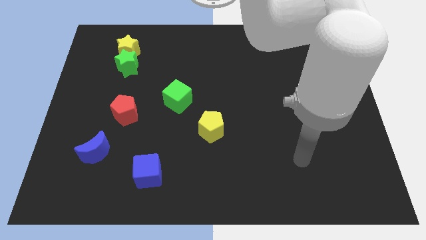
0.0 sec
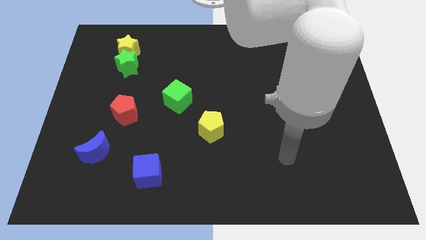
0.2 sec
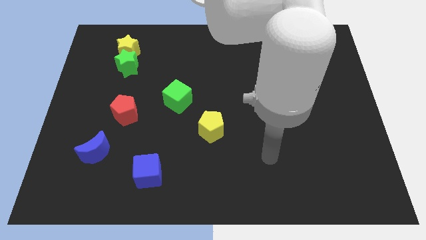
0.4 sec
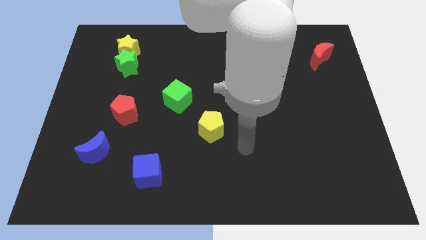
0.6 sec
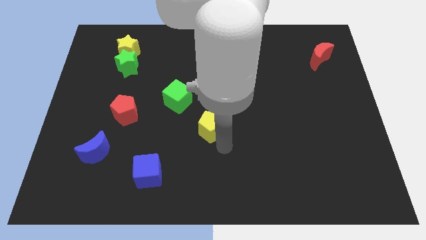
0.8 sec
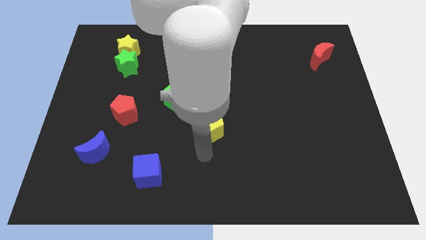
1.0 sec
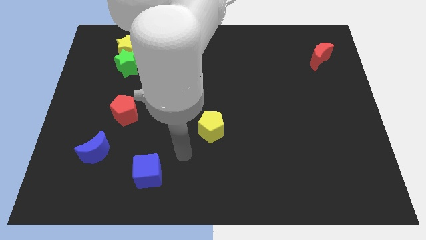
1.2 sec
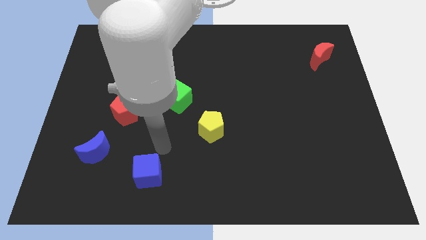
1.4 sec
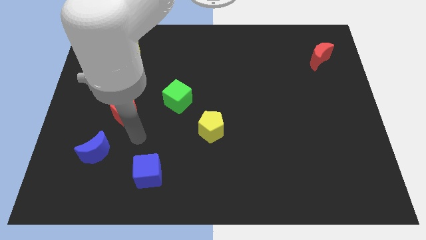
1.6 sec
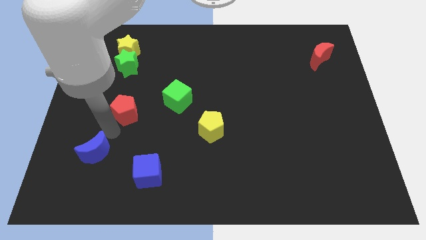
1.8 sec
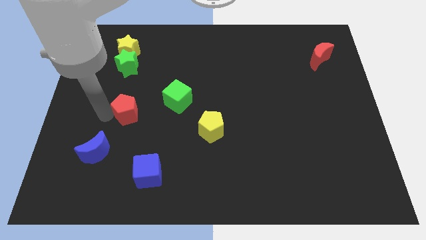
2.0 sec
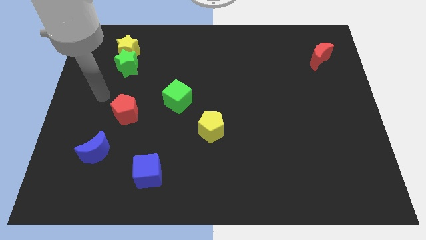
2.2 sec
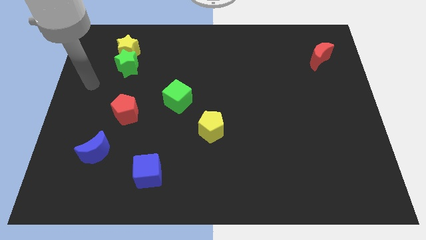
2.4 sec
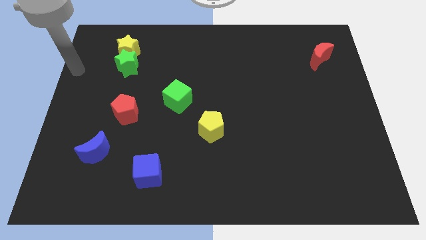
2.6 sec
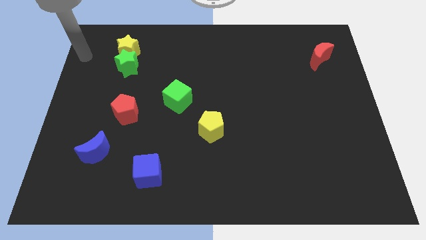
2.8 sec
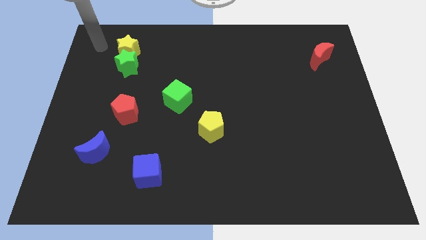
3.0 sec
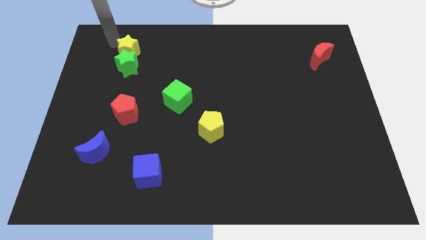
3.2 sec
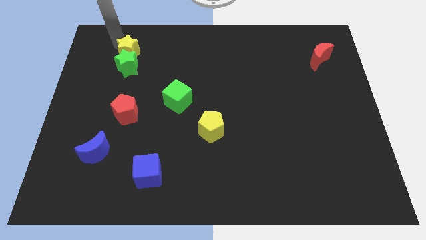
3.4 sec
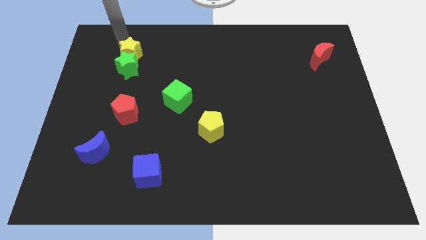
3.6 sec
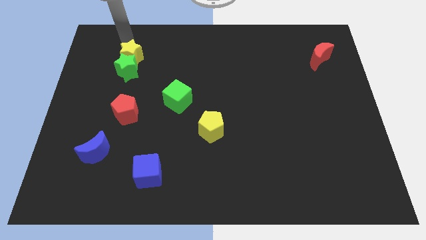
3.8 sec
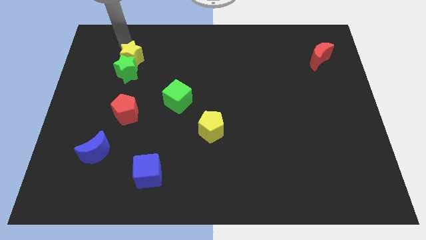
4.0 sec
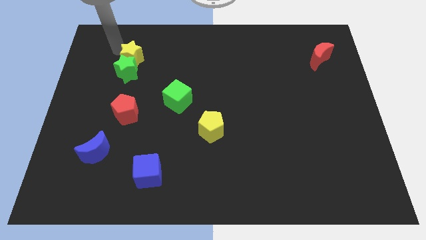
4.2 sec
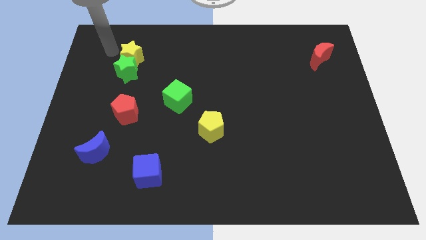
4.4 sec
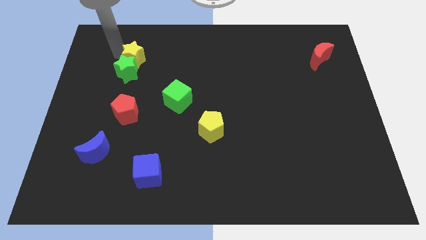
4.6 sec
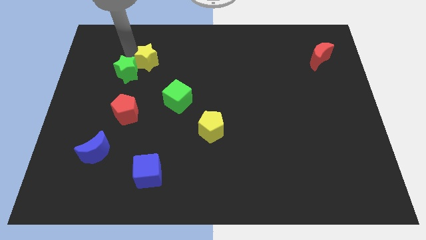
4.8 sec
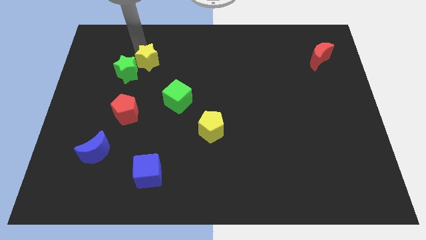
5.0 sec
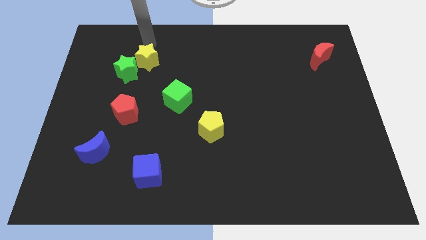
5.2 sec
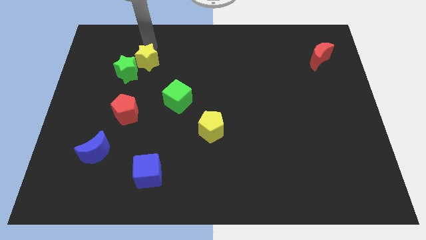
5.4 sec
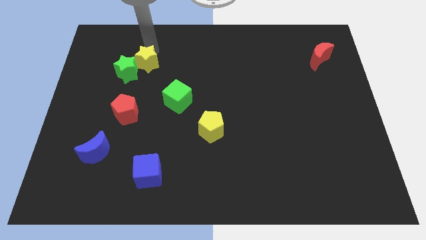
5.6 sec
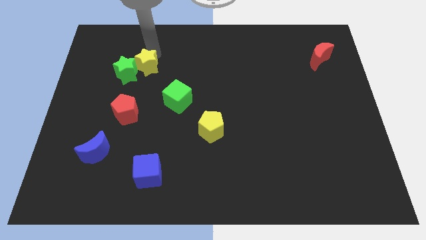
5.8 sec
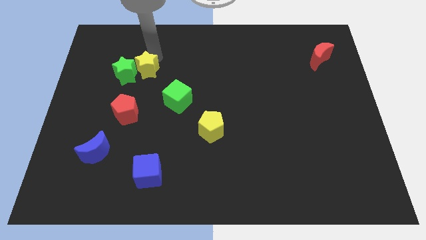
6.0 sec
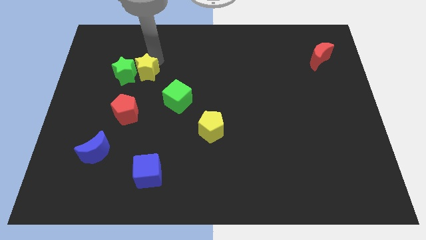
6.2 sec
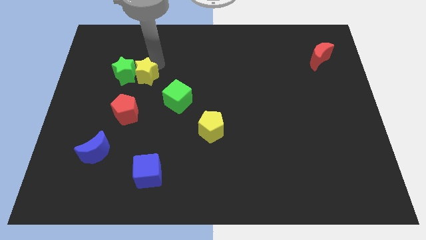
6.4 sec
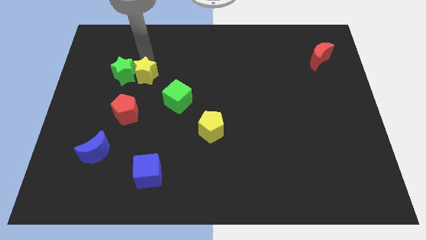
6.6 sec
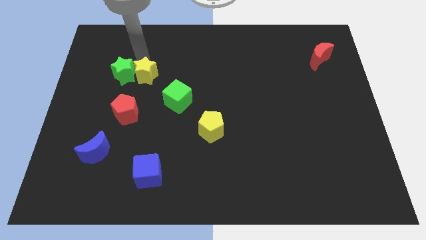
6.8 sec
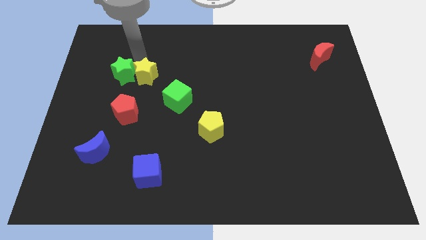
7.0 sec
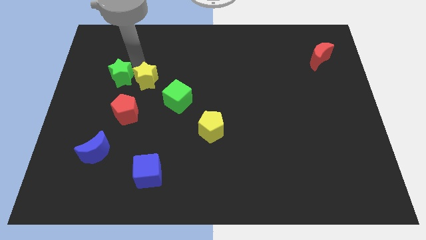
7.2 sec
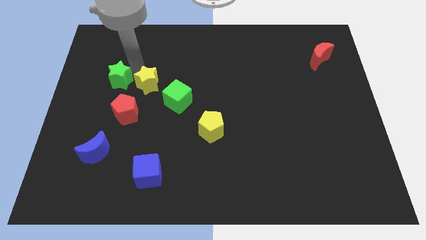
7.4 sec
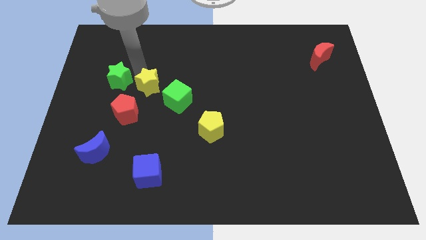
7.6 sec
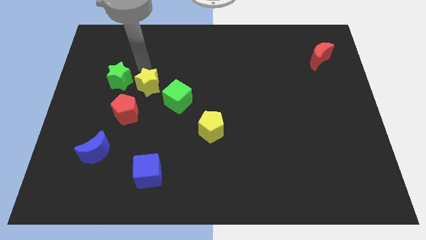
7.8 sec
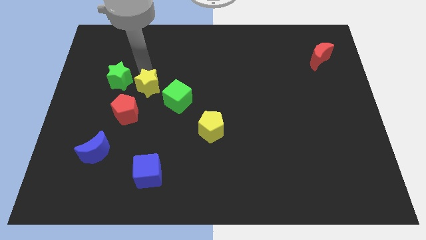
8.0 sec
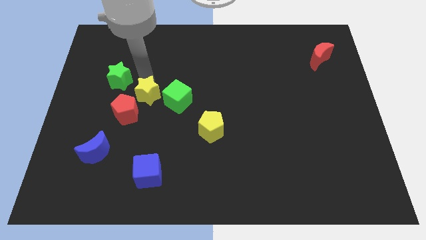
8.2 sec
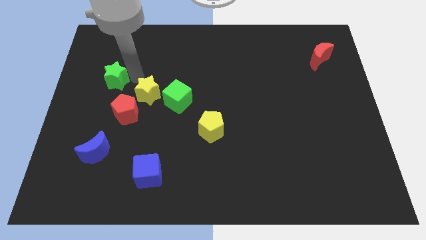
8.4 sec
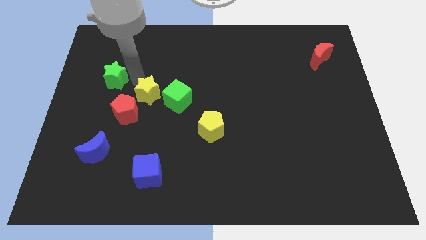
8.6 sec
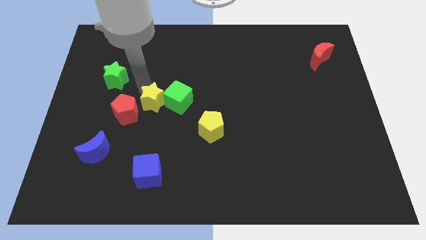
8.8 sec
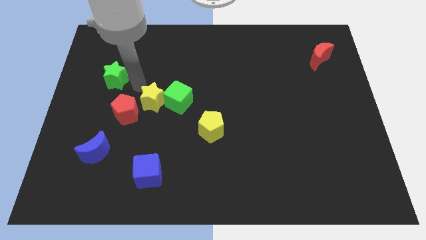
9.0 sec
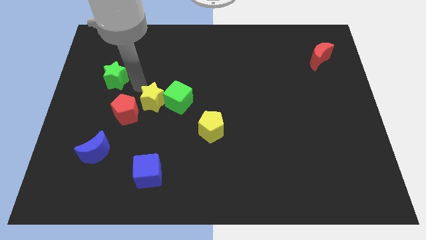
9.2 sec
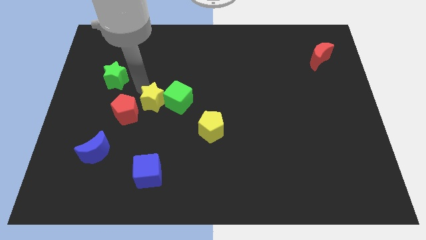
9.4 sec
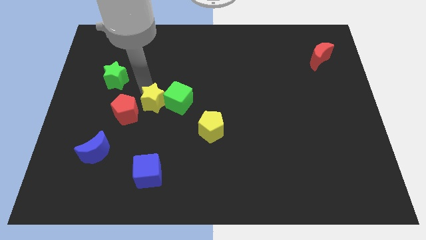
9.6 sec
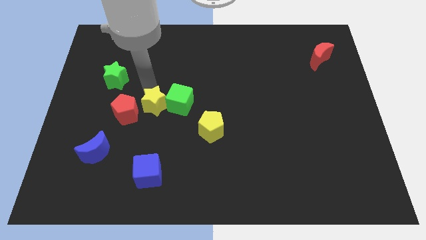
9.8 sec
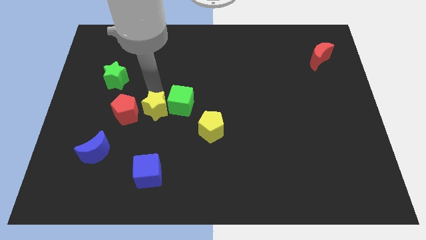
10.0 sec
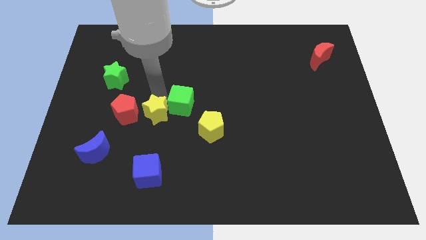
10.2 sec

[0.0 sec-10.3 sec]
push the yellow star to the left side of the yellow pentagon

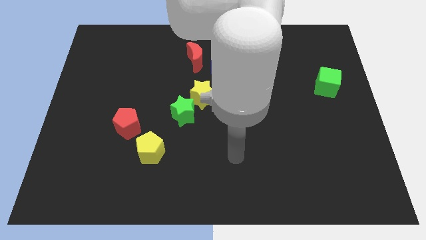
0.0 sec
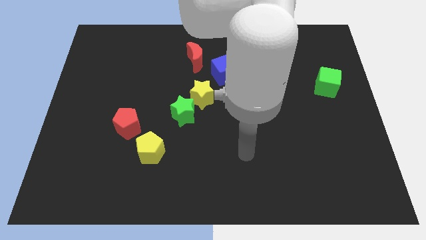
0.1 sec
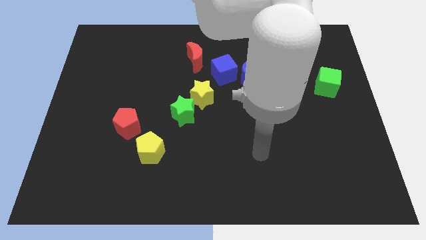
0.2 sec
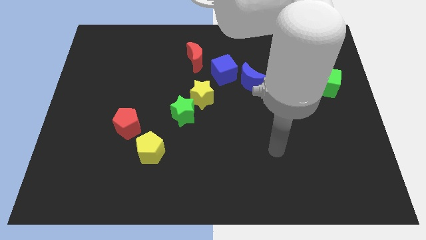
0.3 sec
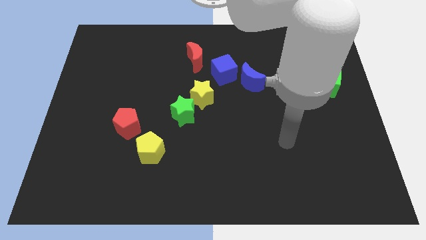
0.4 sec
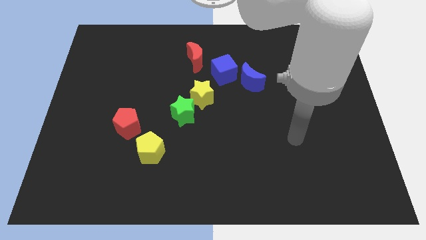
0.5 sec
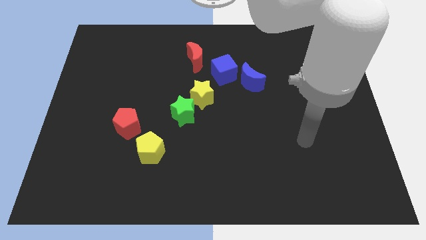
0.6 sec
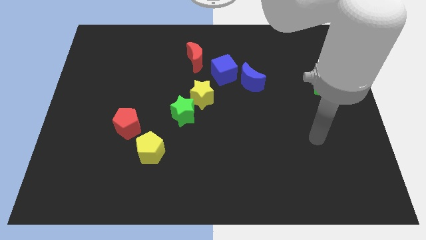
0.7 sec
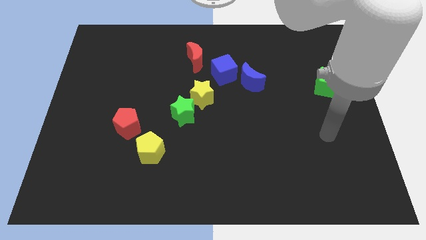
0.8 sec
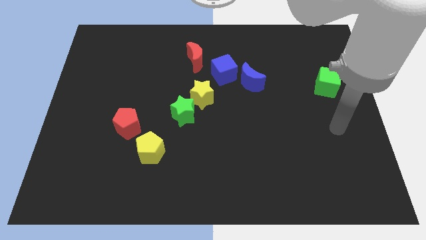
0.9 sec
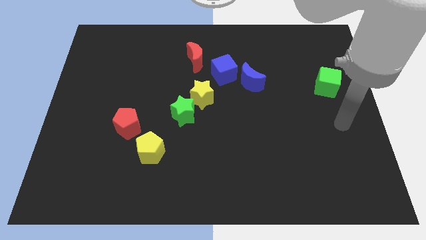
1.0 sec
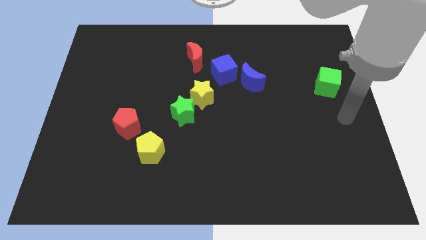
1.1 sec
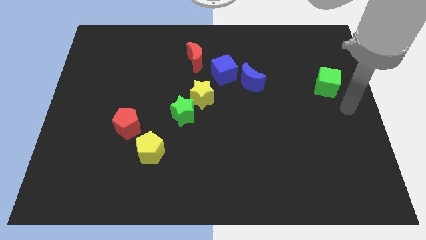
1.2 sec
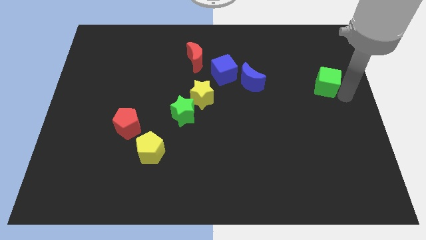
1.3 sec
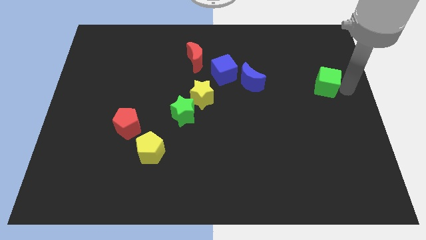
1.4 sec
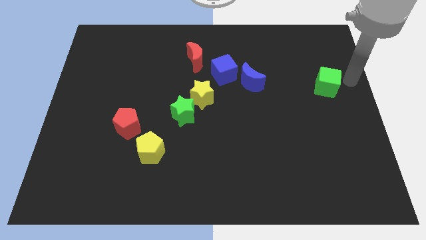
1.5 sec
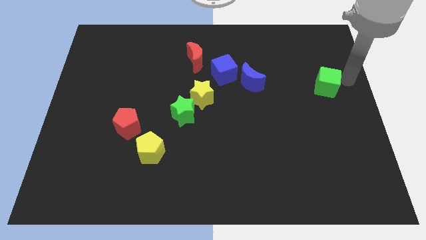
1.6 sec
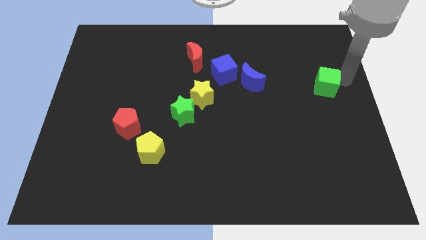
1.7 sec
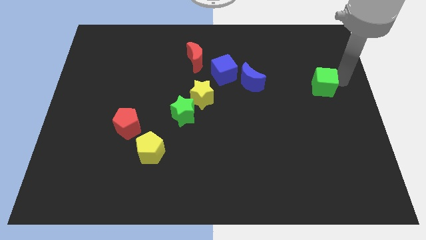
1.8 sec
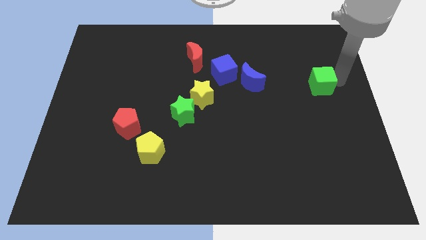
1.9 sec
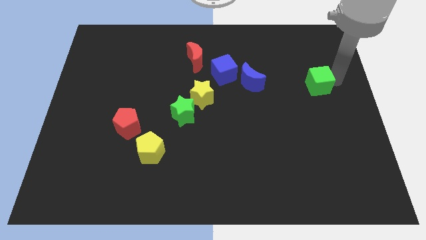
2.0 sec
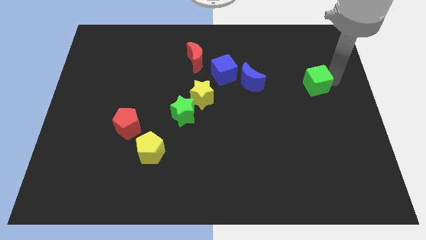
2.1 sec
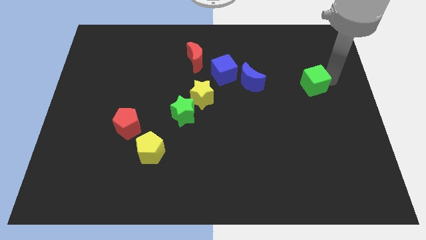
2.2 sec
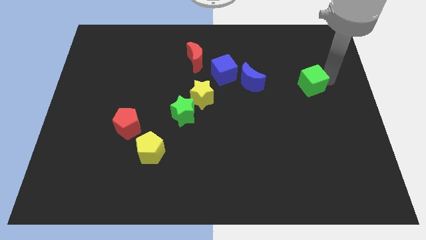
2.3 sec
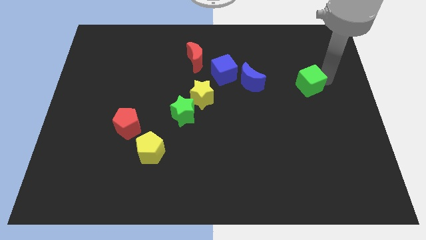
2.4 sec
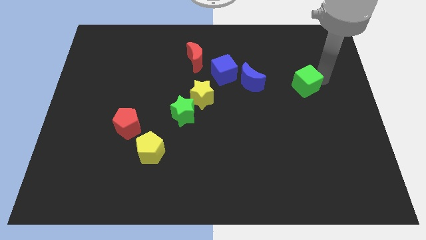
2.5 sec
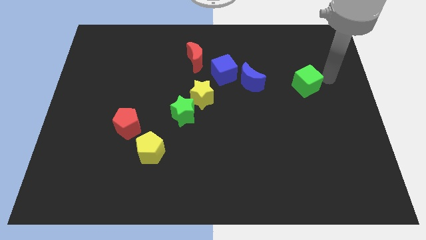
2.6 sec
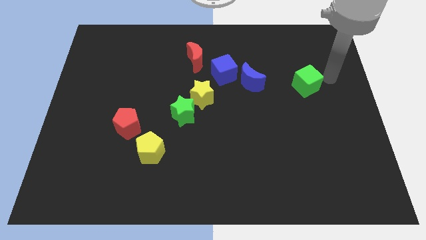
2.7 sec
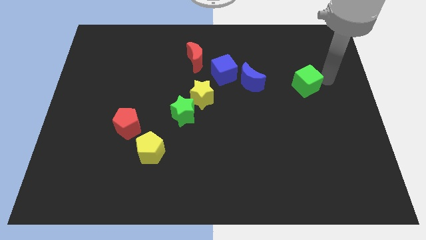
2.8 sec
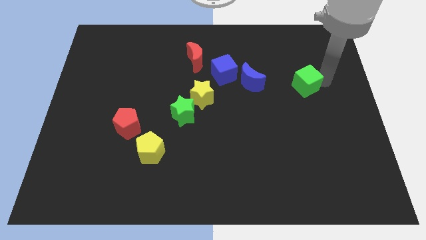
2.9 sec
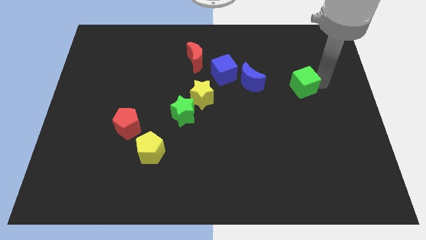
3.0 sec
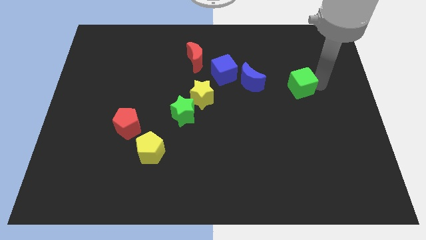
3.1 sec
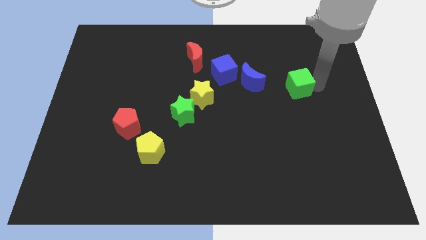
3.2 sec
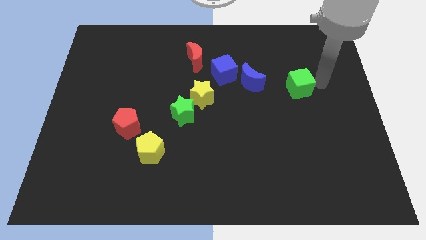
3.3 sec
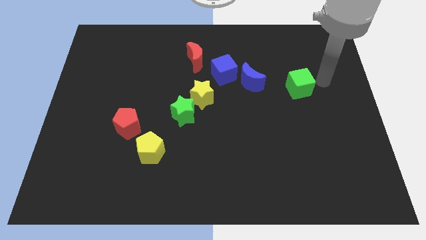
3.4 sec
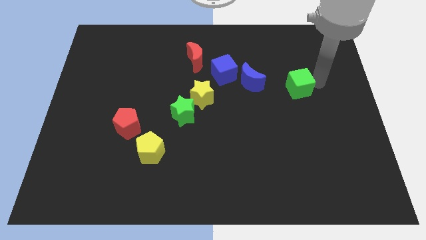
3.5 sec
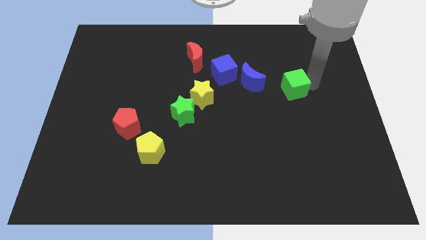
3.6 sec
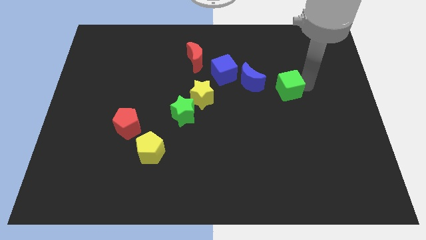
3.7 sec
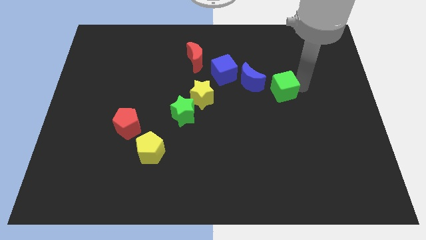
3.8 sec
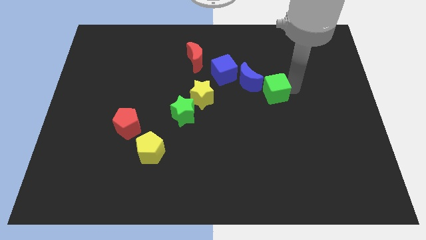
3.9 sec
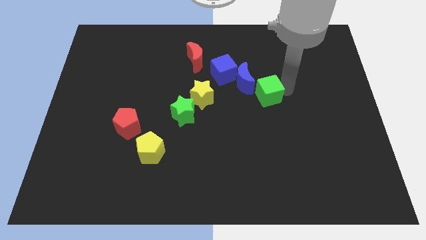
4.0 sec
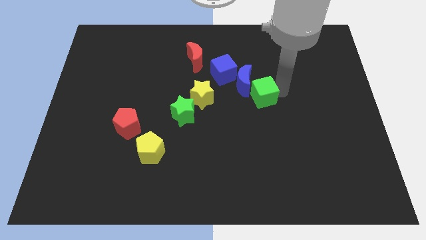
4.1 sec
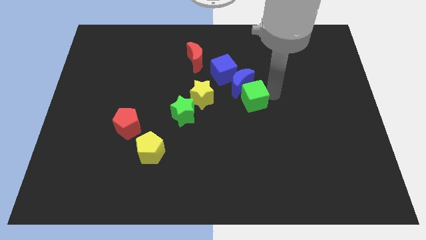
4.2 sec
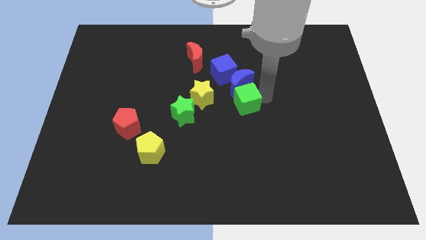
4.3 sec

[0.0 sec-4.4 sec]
put the green cube to the bottom left side of the blue moon
